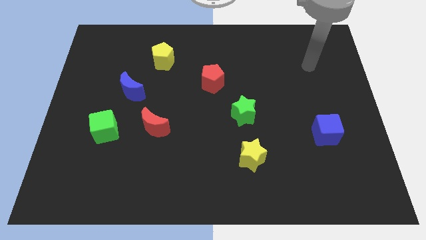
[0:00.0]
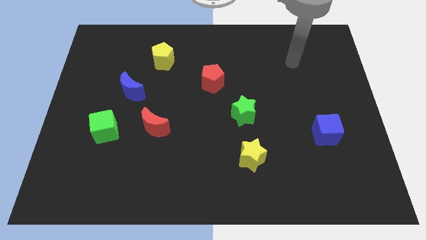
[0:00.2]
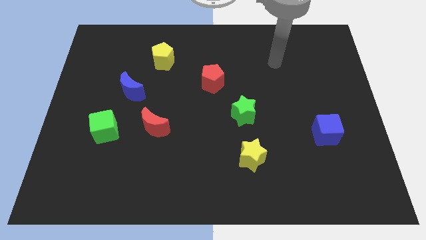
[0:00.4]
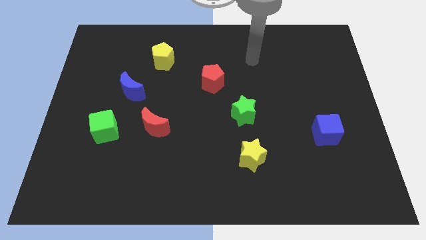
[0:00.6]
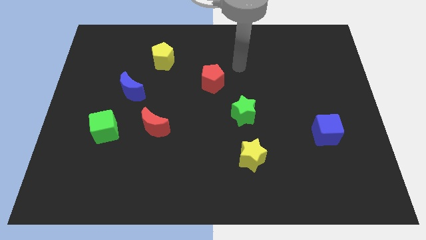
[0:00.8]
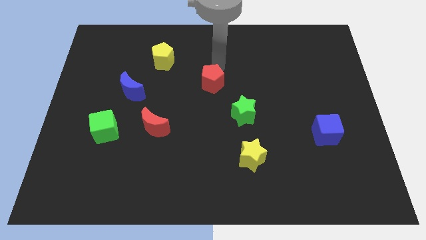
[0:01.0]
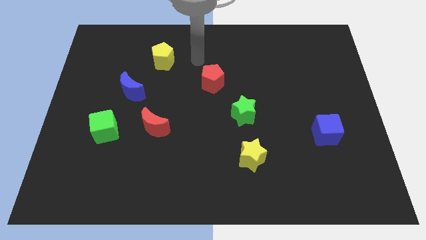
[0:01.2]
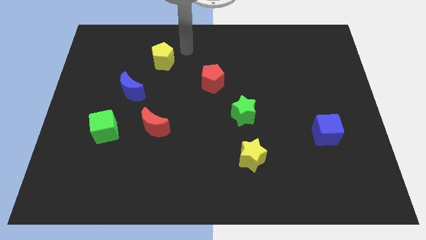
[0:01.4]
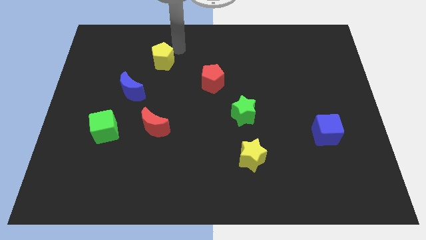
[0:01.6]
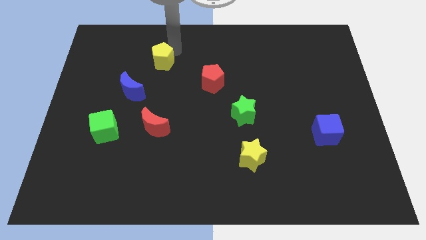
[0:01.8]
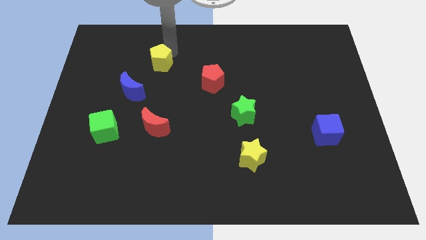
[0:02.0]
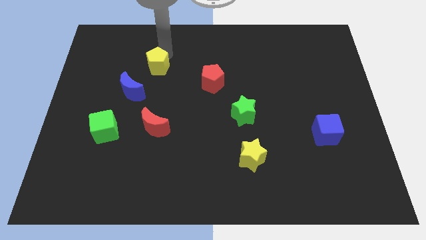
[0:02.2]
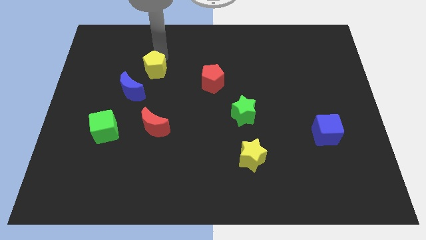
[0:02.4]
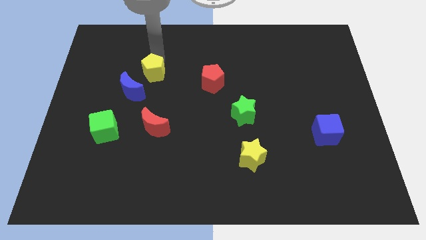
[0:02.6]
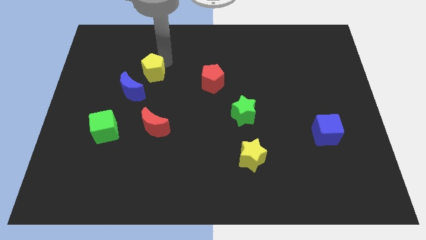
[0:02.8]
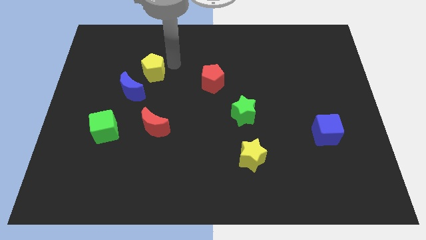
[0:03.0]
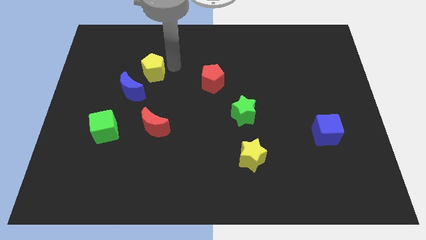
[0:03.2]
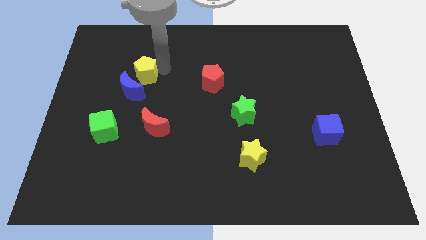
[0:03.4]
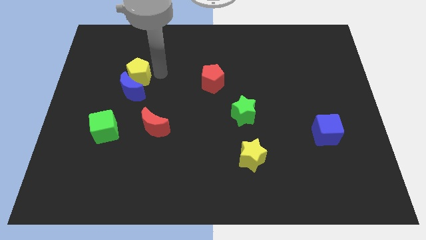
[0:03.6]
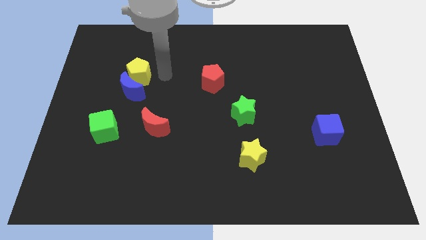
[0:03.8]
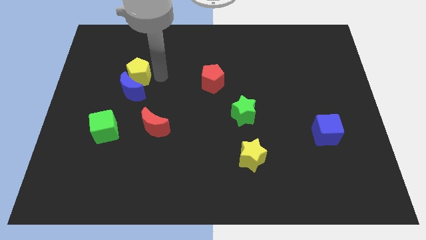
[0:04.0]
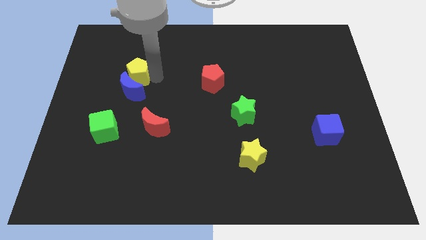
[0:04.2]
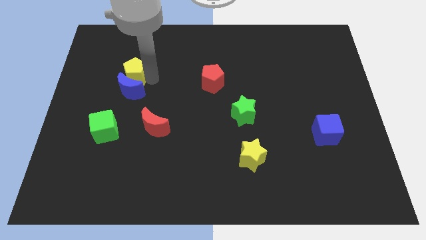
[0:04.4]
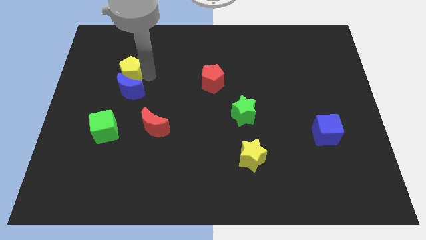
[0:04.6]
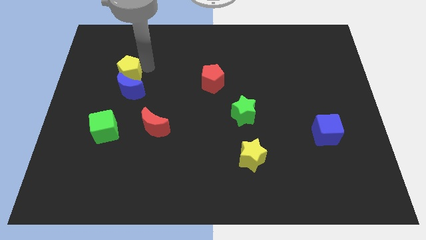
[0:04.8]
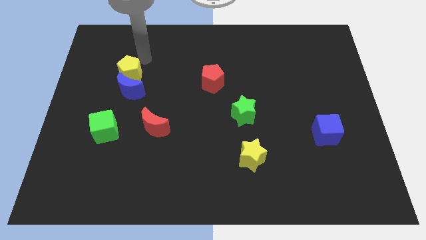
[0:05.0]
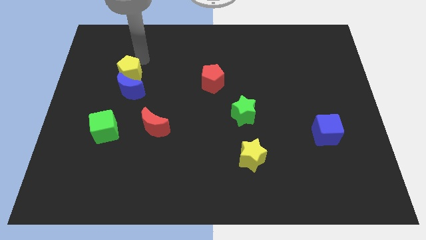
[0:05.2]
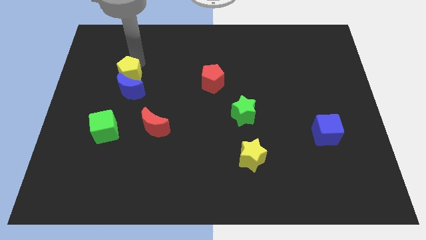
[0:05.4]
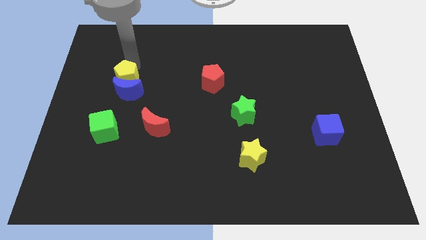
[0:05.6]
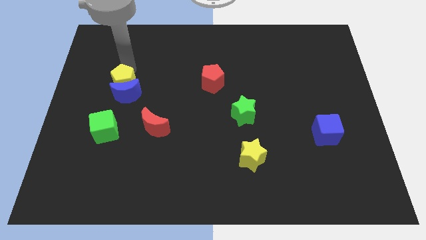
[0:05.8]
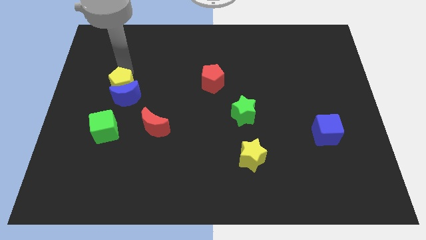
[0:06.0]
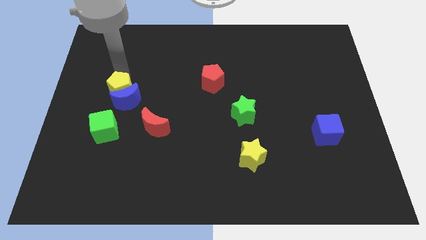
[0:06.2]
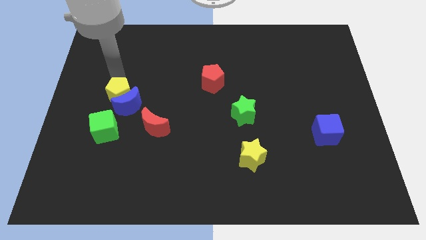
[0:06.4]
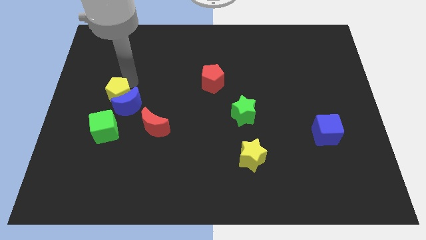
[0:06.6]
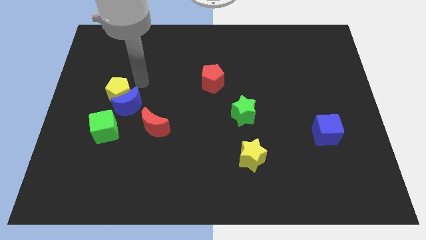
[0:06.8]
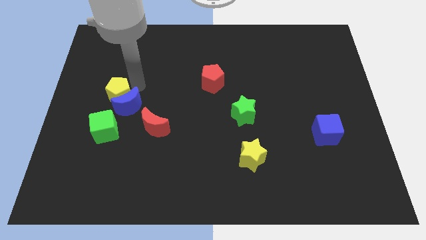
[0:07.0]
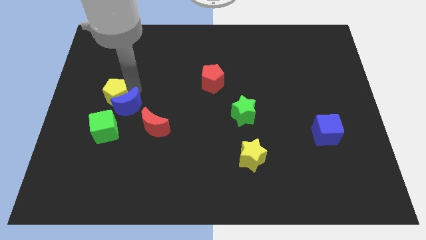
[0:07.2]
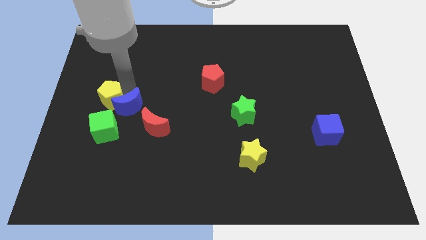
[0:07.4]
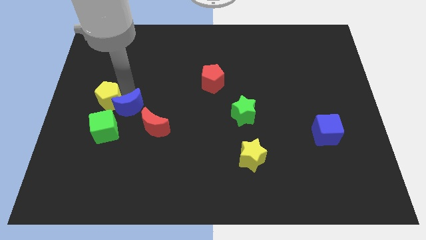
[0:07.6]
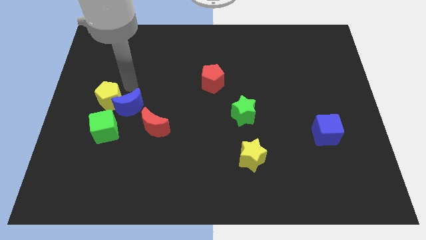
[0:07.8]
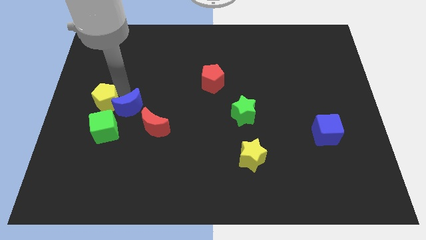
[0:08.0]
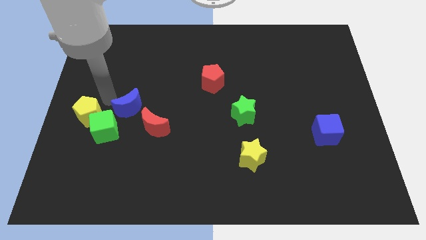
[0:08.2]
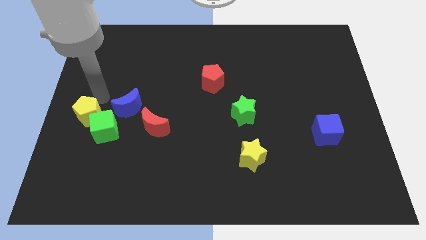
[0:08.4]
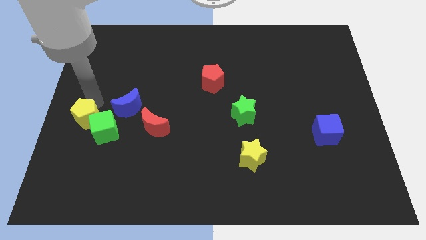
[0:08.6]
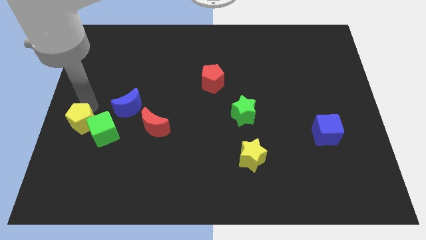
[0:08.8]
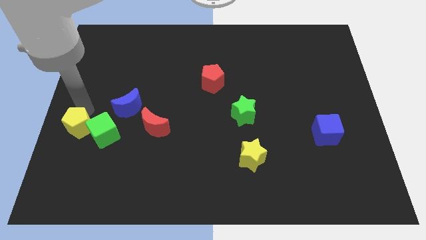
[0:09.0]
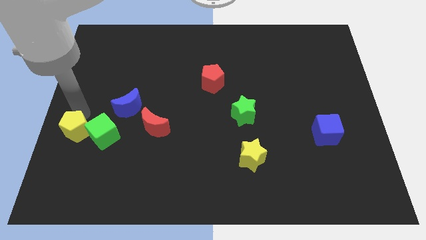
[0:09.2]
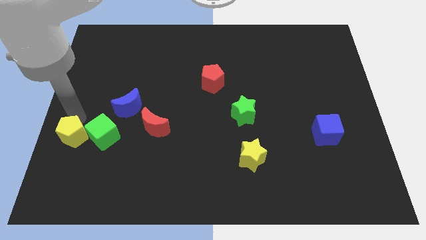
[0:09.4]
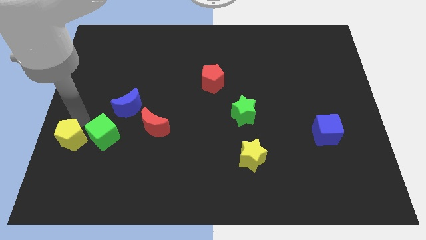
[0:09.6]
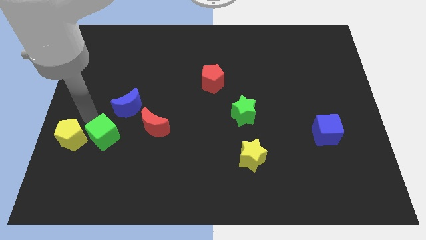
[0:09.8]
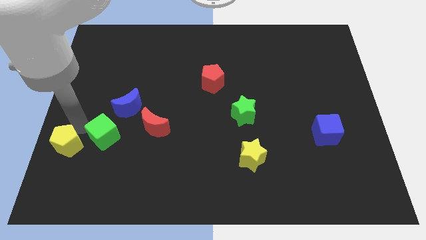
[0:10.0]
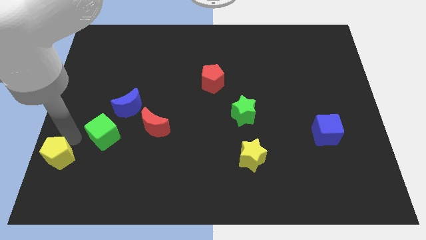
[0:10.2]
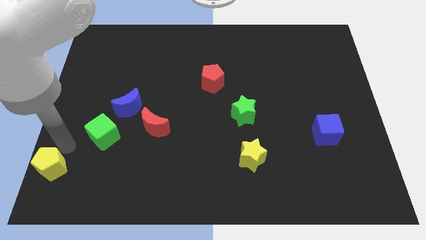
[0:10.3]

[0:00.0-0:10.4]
move the yellow pentagon to the lower left corner

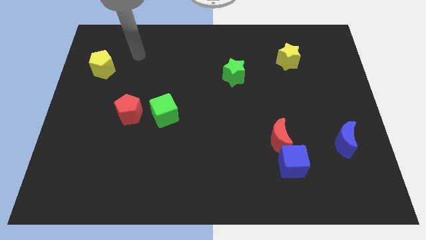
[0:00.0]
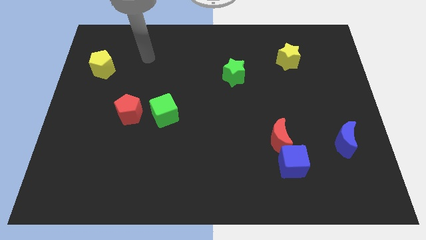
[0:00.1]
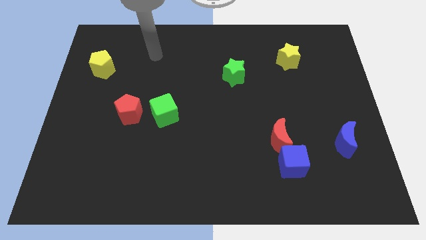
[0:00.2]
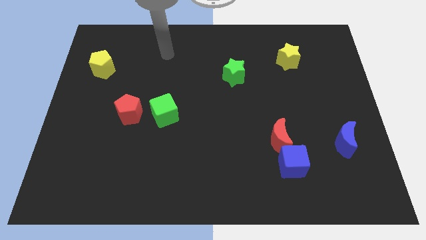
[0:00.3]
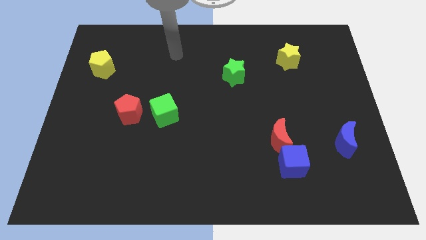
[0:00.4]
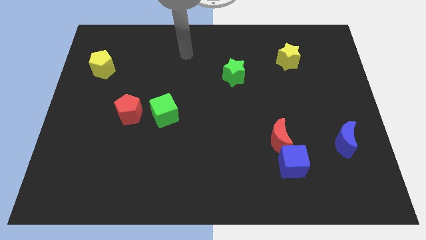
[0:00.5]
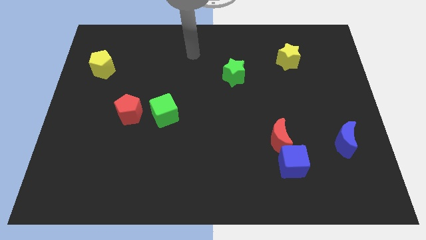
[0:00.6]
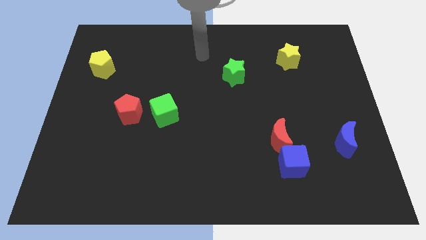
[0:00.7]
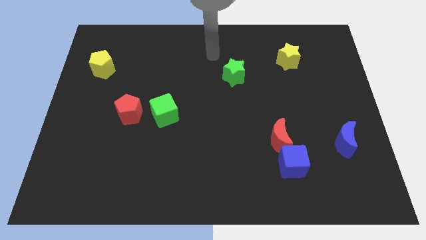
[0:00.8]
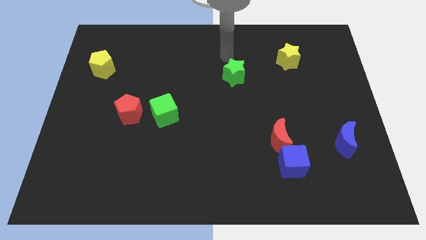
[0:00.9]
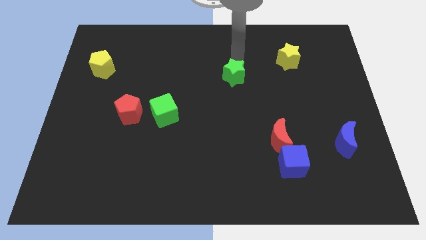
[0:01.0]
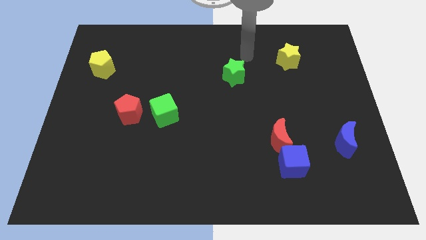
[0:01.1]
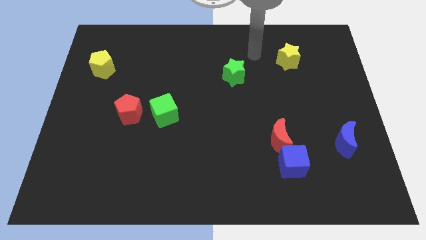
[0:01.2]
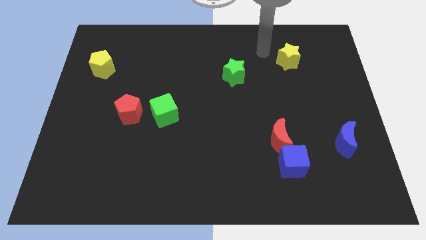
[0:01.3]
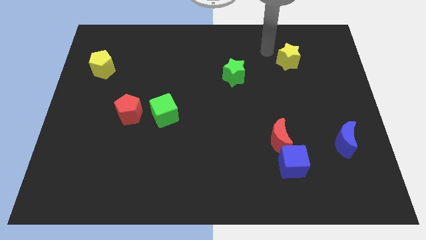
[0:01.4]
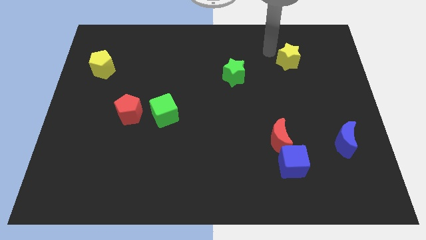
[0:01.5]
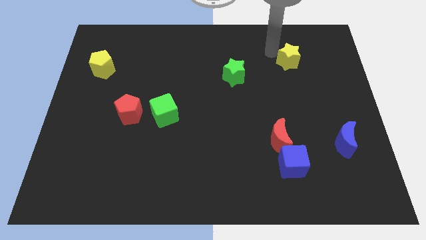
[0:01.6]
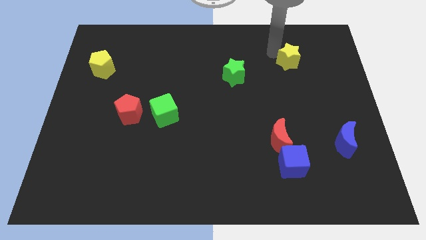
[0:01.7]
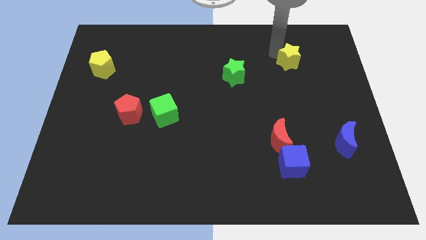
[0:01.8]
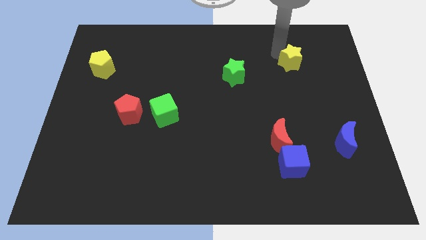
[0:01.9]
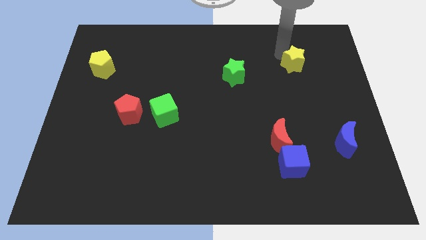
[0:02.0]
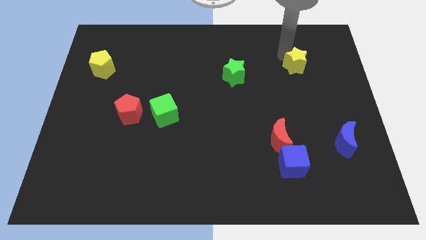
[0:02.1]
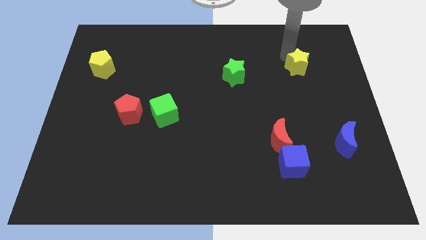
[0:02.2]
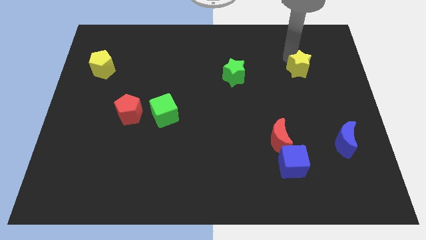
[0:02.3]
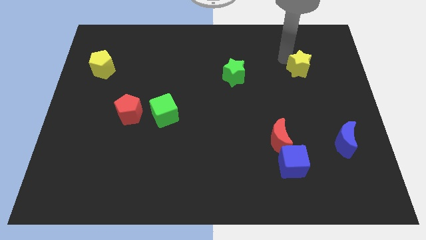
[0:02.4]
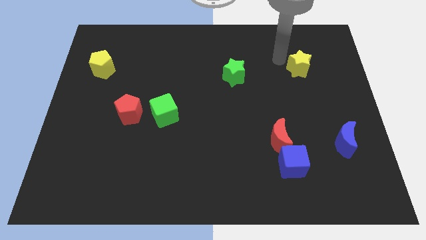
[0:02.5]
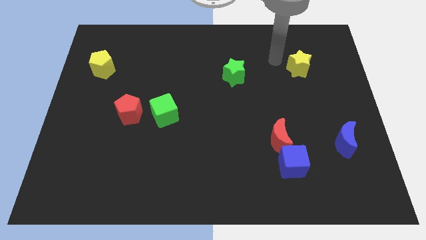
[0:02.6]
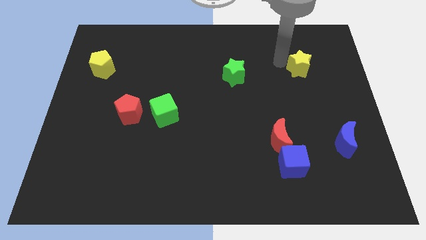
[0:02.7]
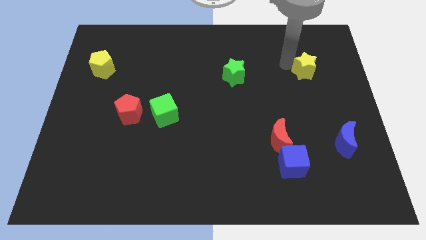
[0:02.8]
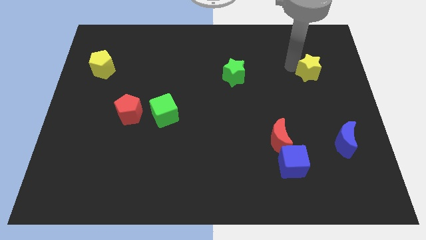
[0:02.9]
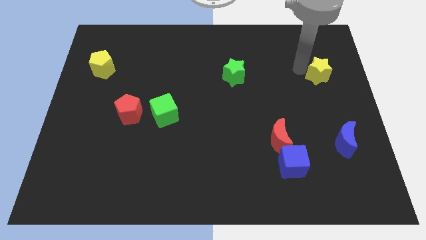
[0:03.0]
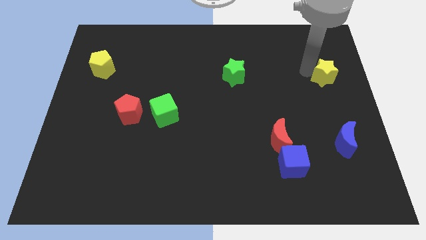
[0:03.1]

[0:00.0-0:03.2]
slide the yellow star to the right side
